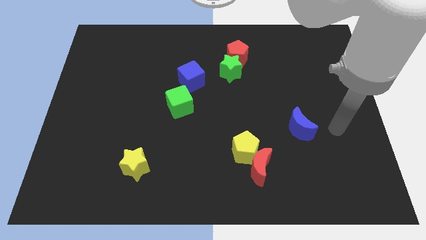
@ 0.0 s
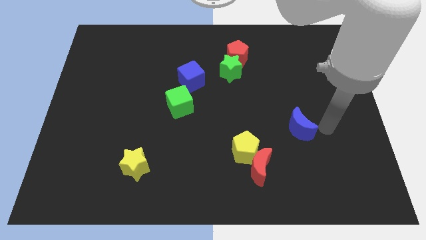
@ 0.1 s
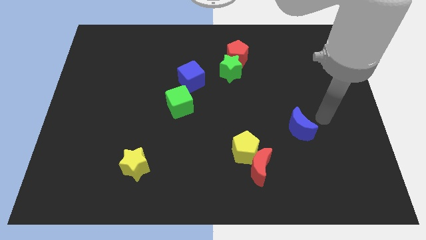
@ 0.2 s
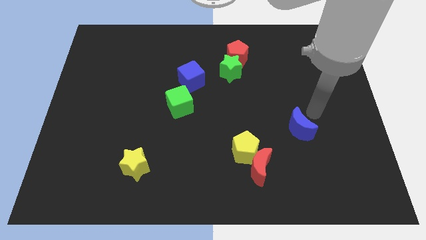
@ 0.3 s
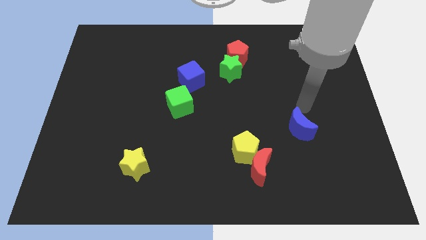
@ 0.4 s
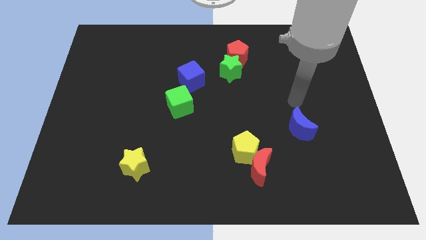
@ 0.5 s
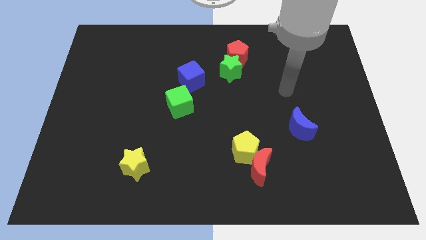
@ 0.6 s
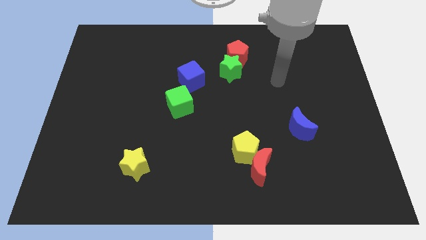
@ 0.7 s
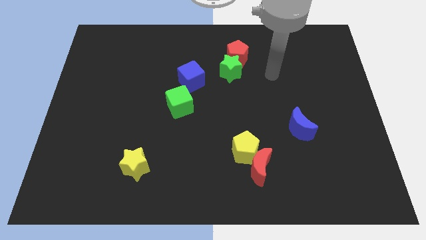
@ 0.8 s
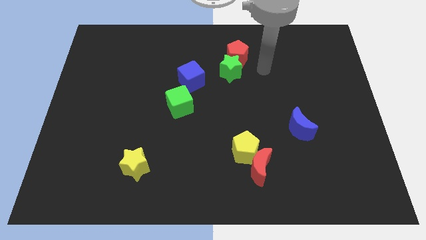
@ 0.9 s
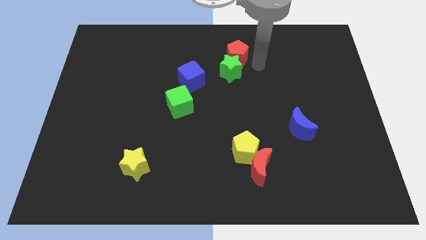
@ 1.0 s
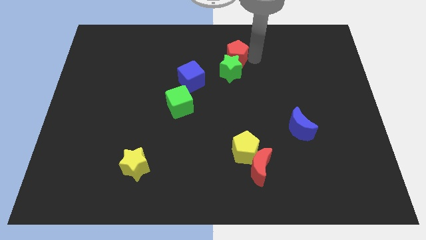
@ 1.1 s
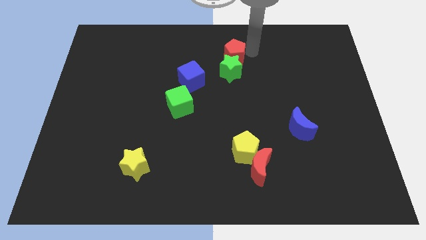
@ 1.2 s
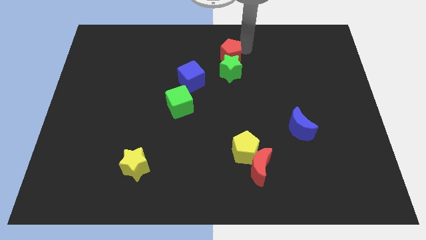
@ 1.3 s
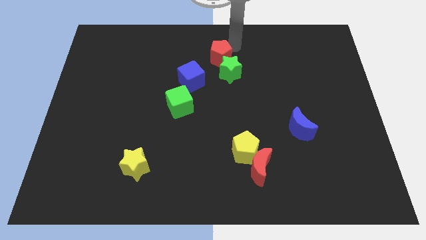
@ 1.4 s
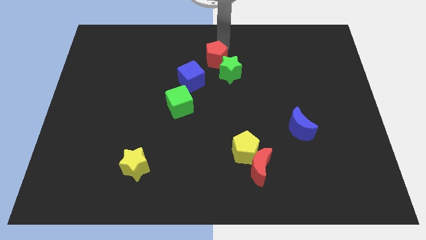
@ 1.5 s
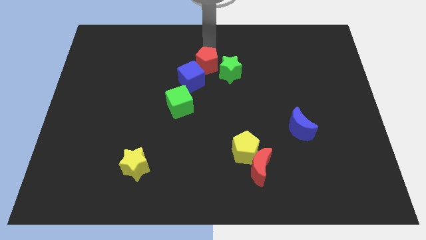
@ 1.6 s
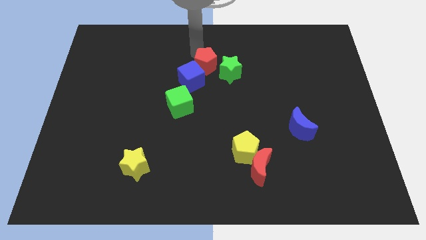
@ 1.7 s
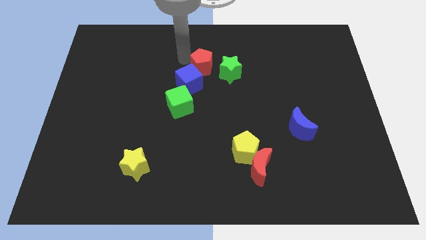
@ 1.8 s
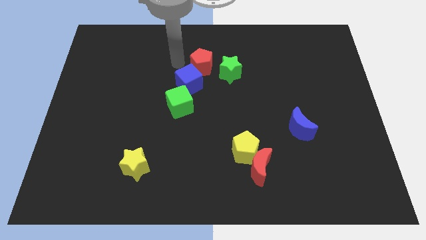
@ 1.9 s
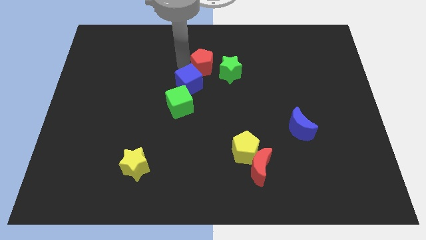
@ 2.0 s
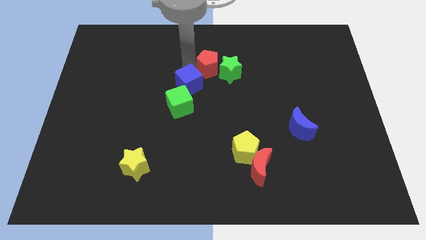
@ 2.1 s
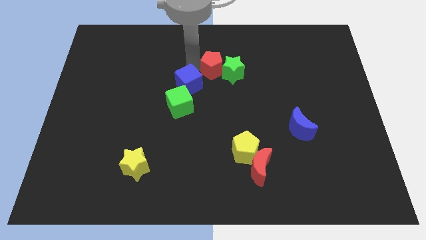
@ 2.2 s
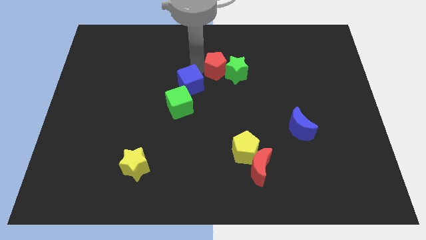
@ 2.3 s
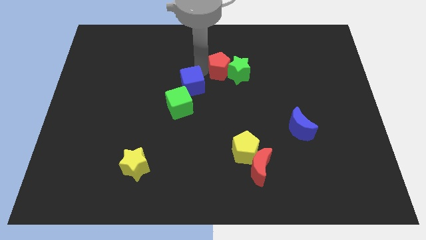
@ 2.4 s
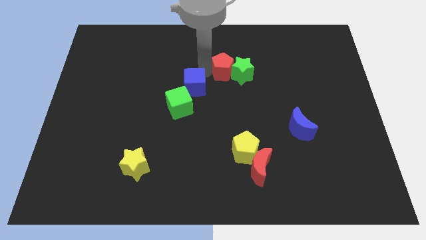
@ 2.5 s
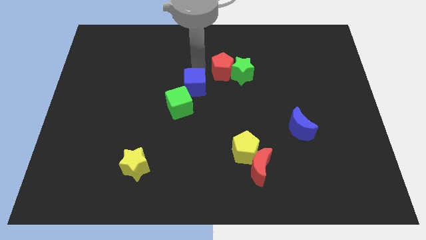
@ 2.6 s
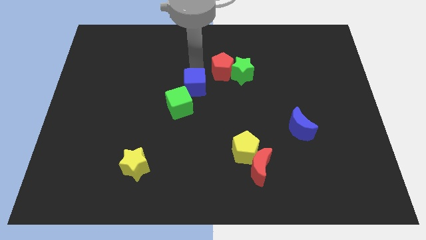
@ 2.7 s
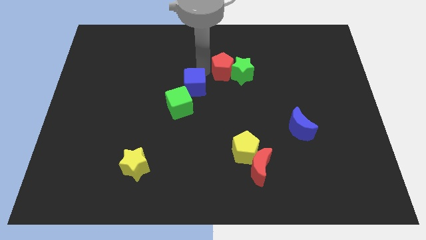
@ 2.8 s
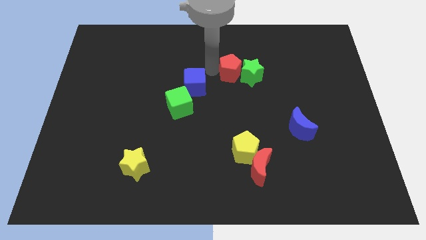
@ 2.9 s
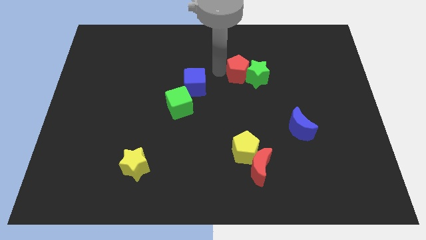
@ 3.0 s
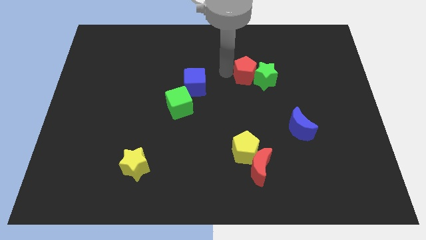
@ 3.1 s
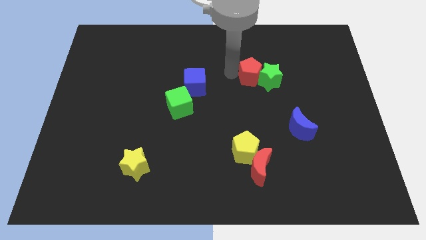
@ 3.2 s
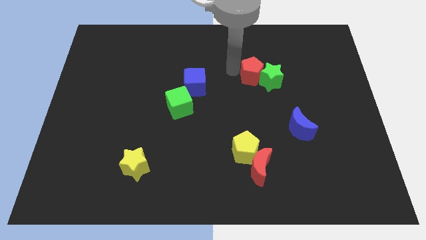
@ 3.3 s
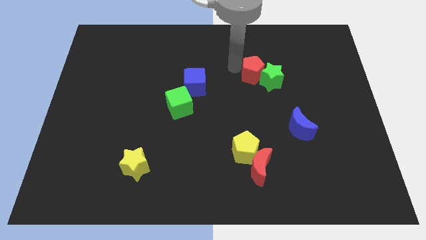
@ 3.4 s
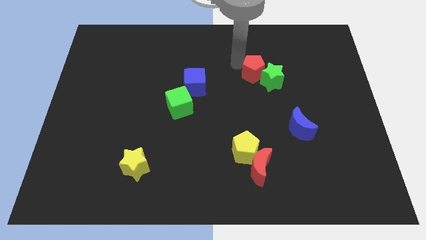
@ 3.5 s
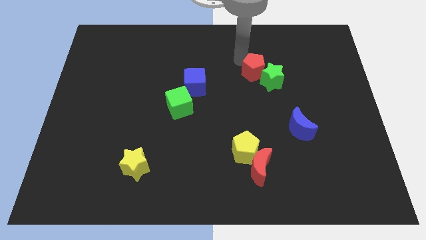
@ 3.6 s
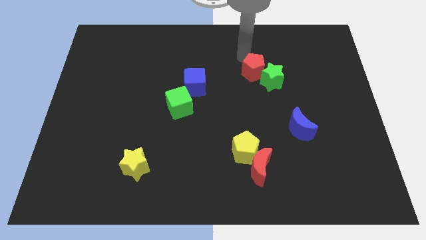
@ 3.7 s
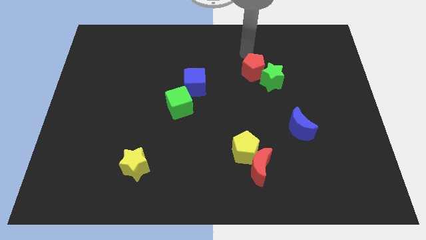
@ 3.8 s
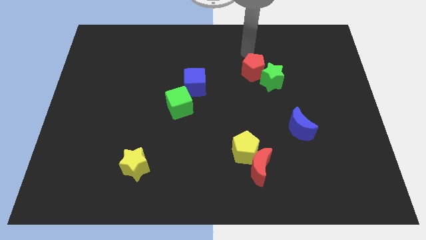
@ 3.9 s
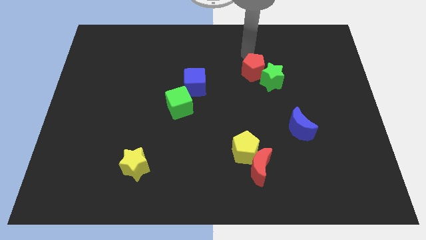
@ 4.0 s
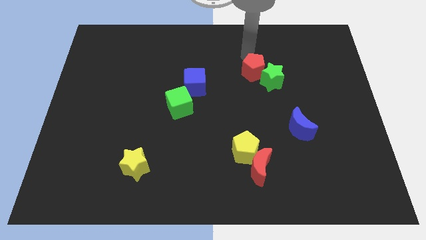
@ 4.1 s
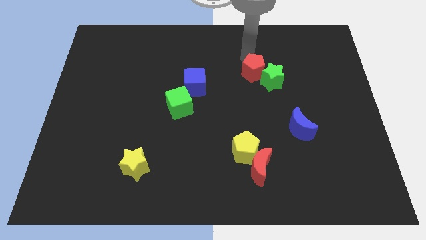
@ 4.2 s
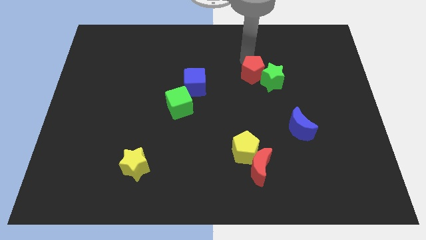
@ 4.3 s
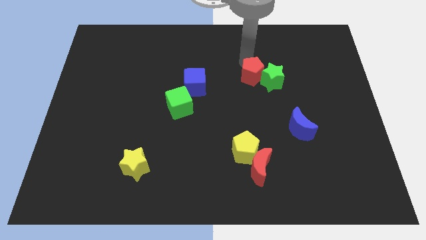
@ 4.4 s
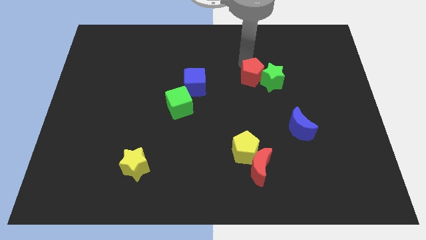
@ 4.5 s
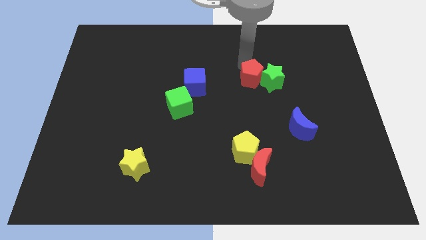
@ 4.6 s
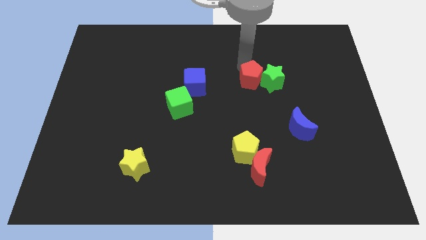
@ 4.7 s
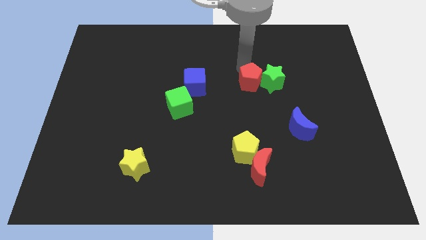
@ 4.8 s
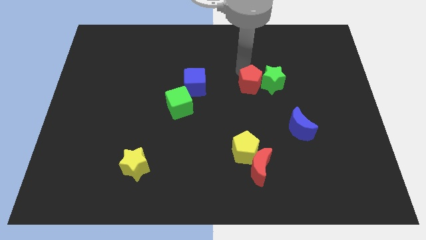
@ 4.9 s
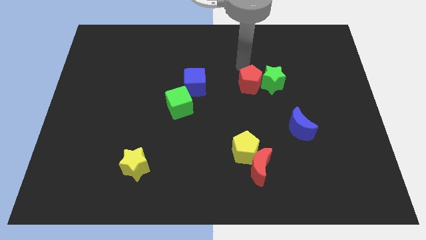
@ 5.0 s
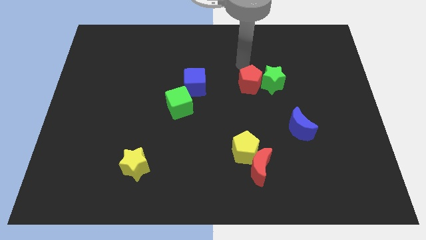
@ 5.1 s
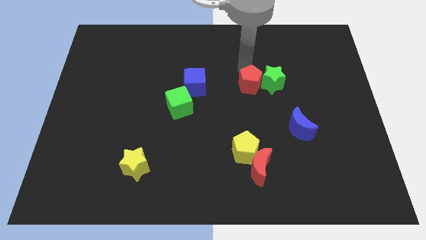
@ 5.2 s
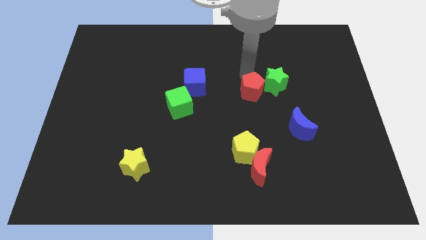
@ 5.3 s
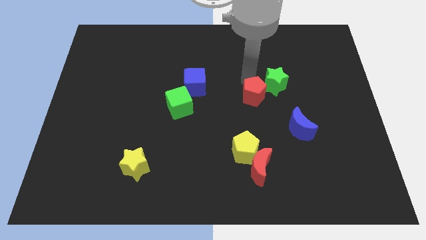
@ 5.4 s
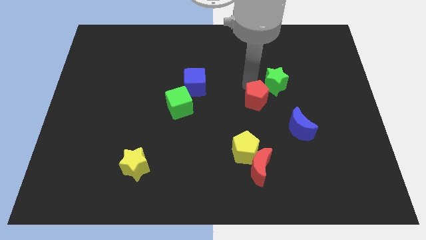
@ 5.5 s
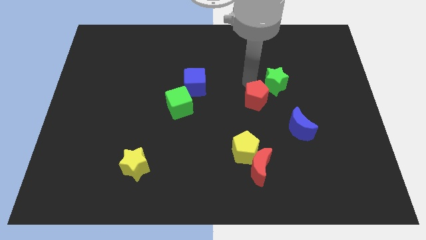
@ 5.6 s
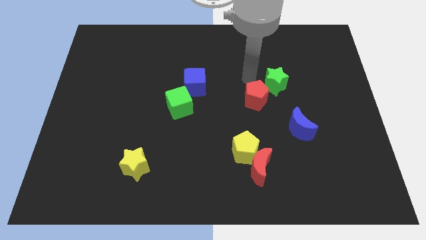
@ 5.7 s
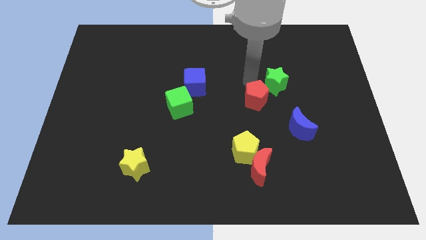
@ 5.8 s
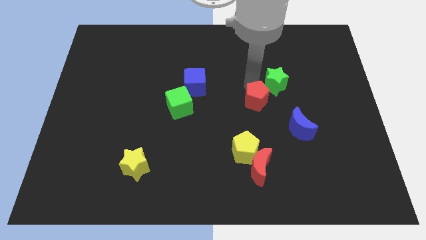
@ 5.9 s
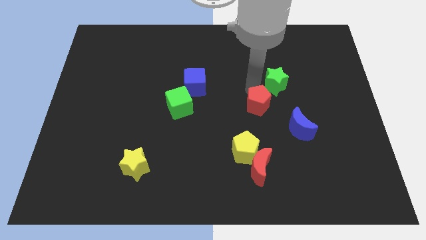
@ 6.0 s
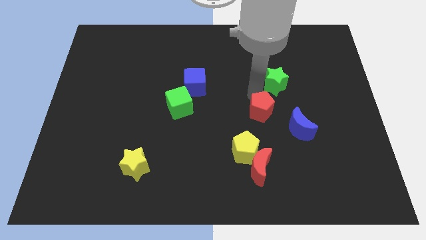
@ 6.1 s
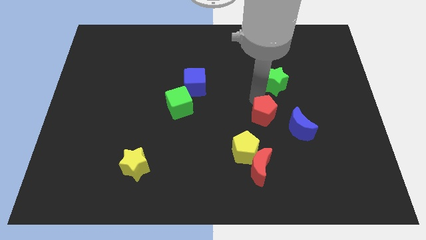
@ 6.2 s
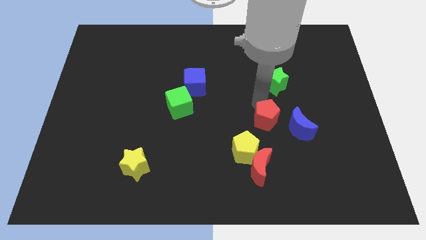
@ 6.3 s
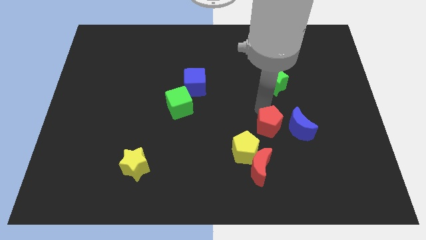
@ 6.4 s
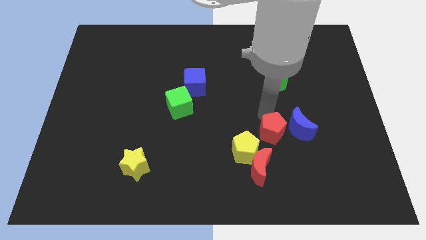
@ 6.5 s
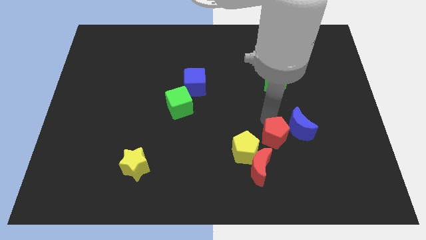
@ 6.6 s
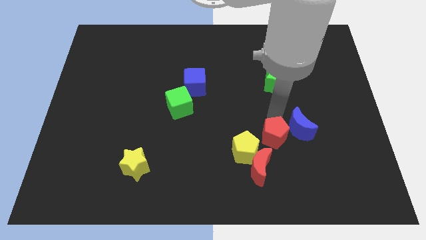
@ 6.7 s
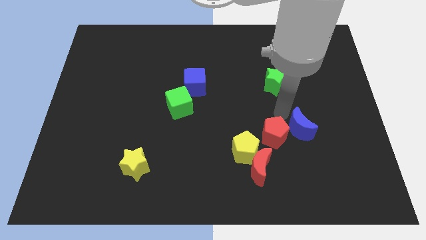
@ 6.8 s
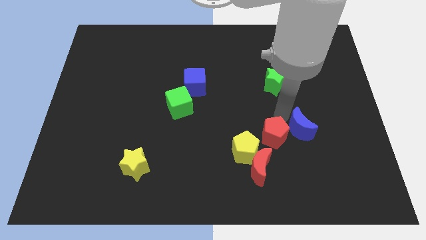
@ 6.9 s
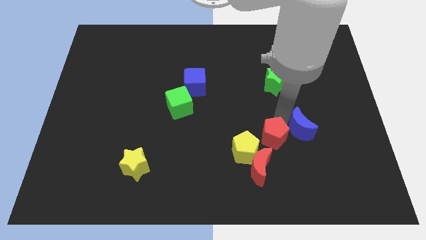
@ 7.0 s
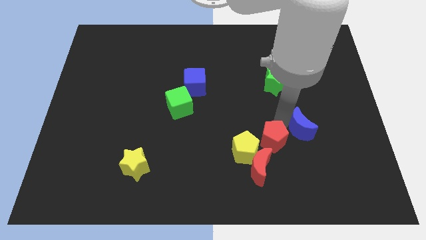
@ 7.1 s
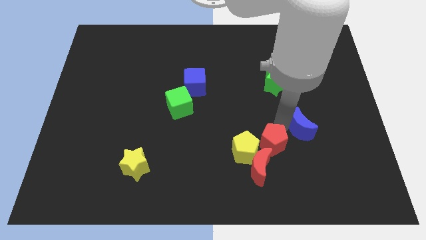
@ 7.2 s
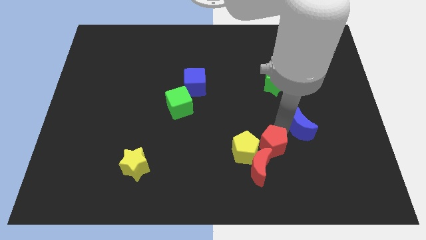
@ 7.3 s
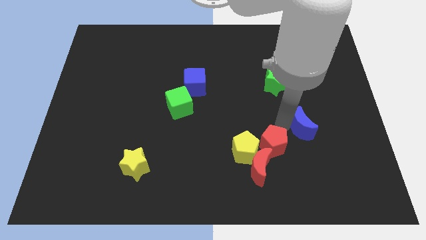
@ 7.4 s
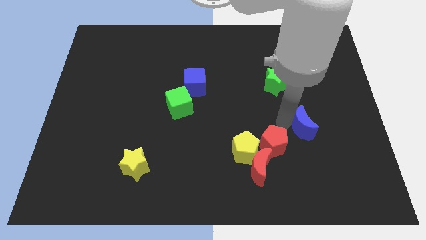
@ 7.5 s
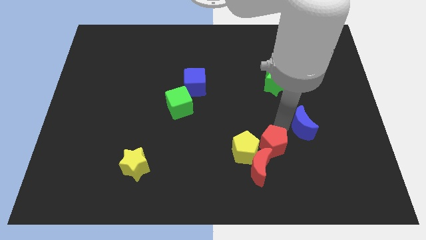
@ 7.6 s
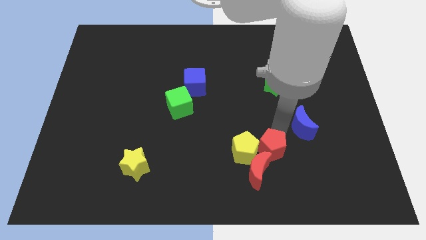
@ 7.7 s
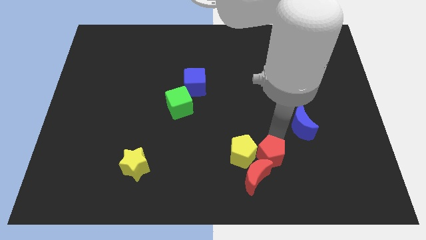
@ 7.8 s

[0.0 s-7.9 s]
slide the red pentagon towards the red moon
